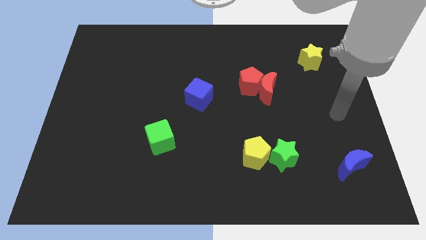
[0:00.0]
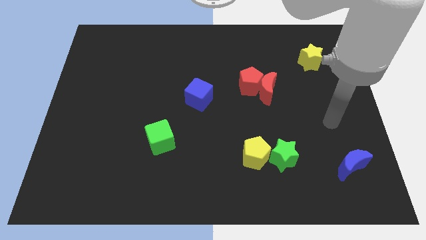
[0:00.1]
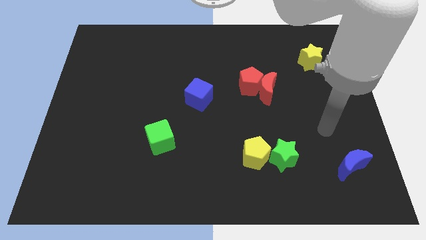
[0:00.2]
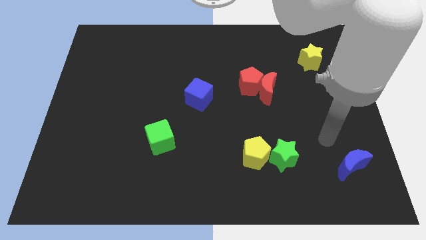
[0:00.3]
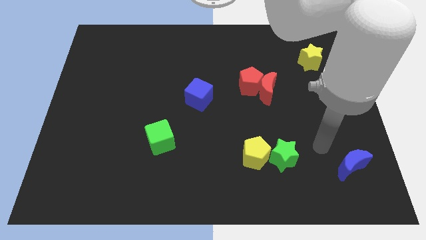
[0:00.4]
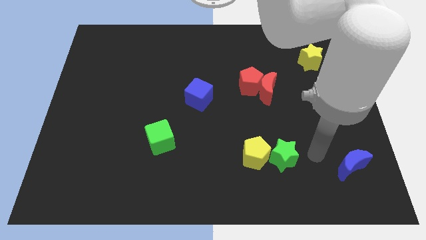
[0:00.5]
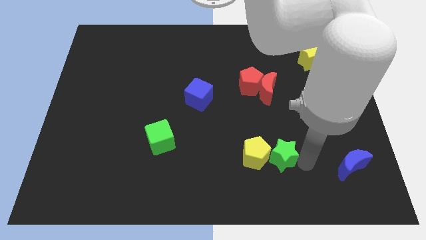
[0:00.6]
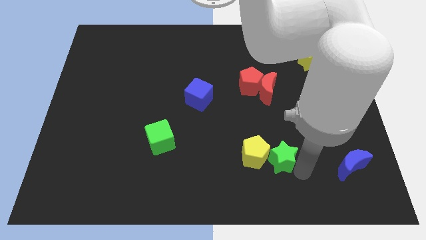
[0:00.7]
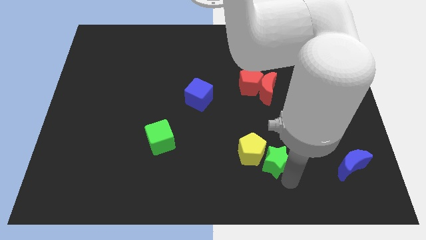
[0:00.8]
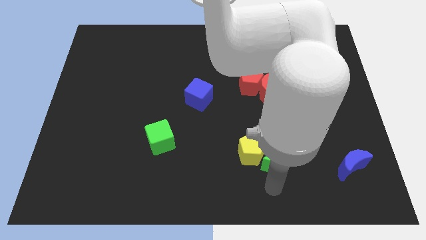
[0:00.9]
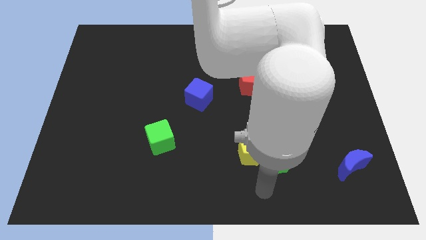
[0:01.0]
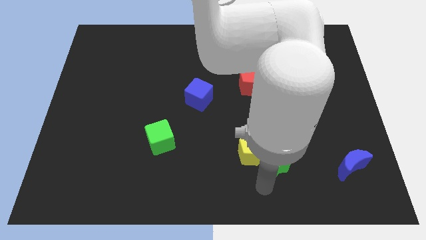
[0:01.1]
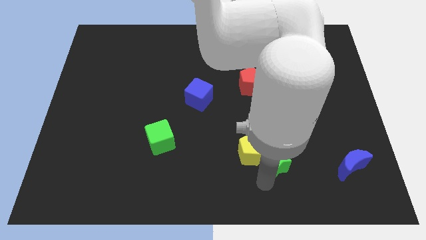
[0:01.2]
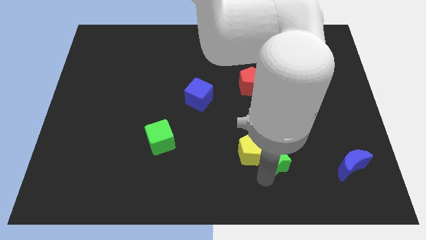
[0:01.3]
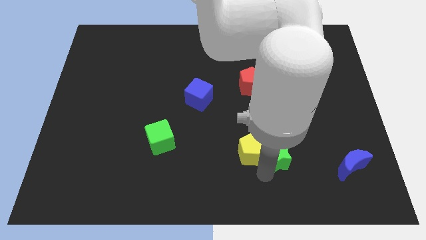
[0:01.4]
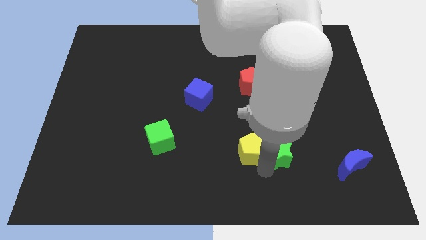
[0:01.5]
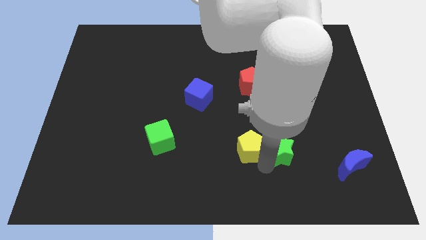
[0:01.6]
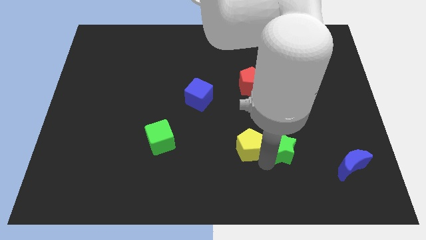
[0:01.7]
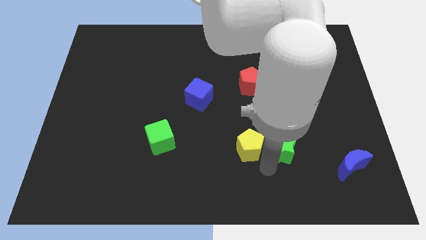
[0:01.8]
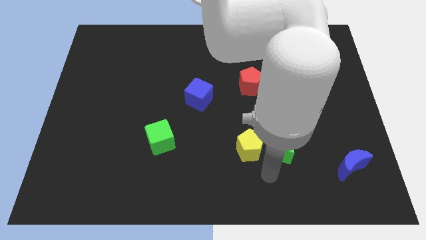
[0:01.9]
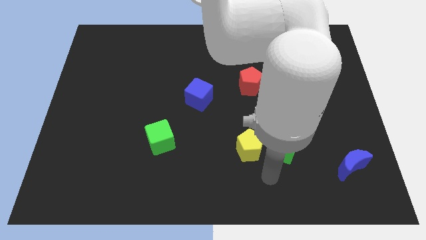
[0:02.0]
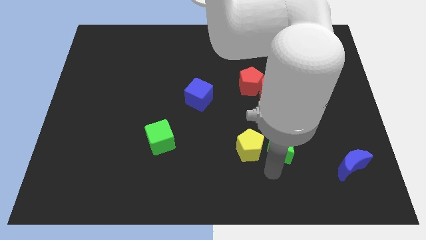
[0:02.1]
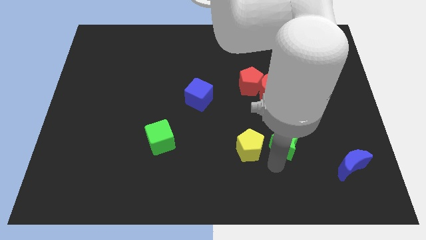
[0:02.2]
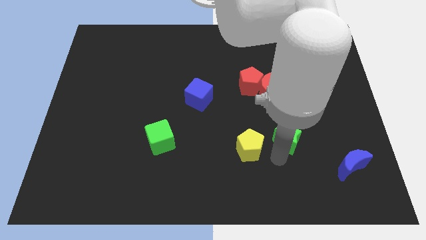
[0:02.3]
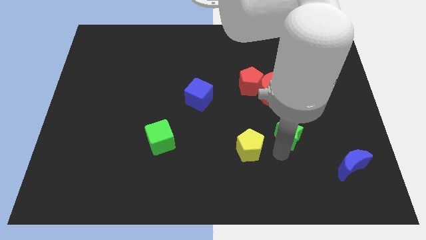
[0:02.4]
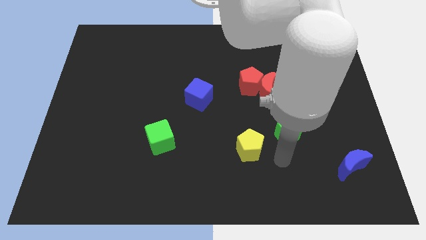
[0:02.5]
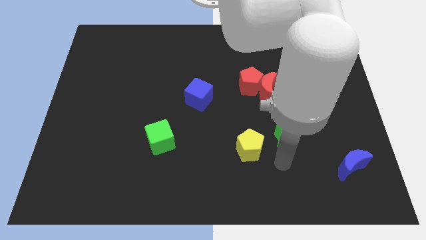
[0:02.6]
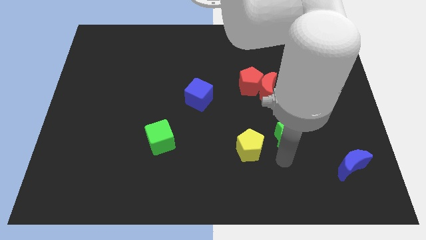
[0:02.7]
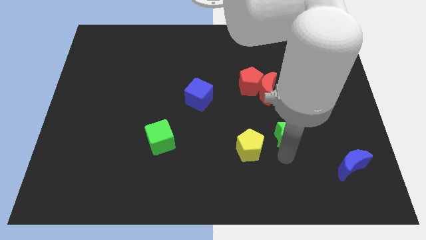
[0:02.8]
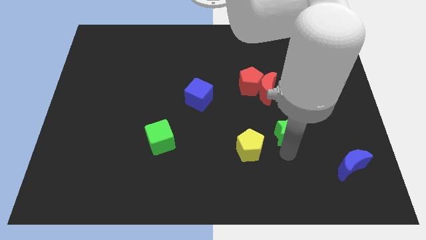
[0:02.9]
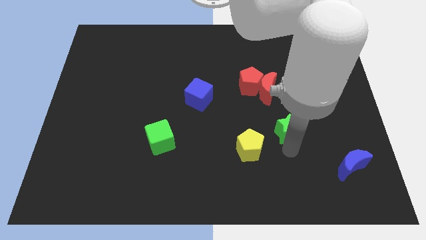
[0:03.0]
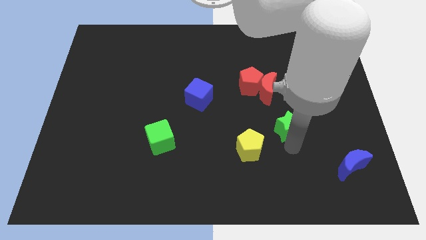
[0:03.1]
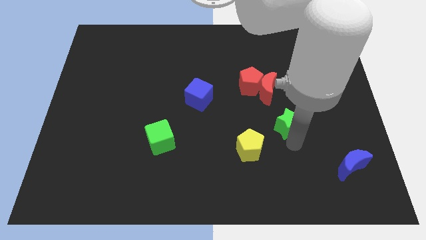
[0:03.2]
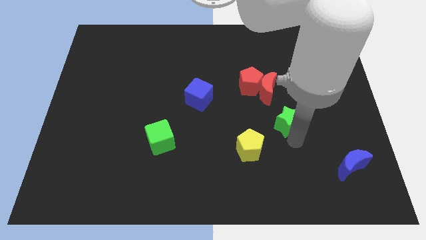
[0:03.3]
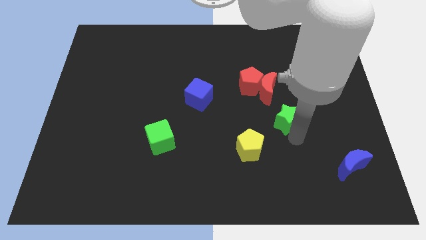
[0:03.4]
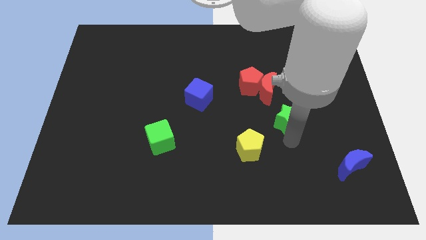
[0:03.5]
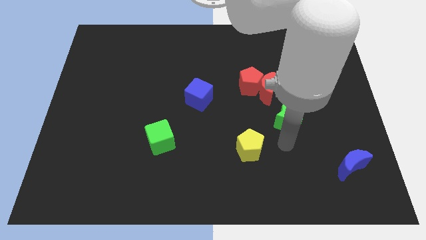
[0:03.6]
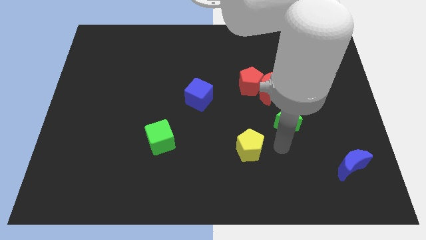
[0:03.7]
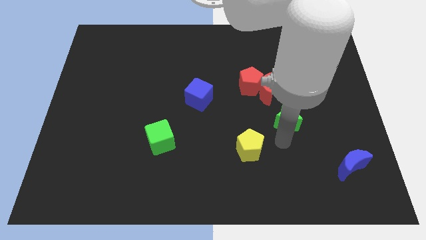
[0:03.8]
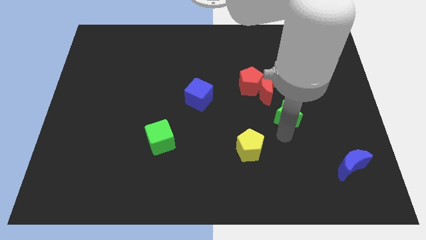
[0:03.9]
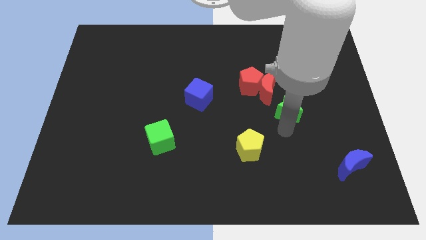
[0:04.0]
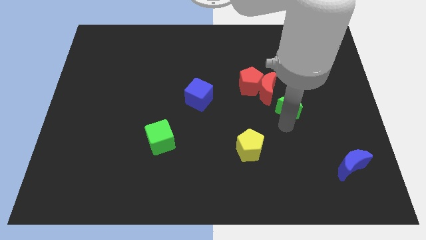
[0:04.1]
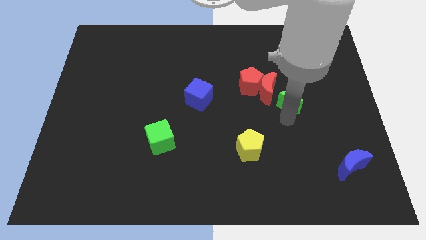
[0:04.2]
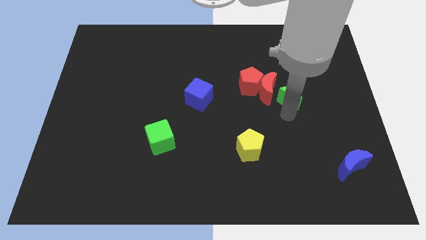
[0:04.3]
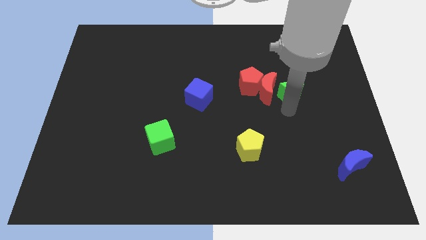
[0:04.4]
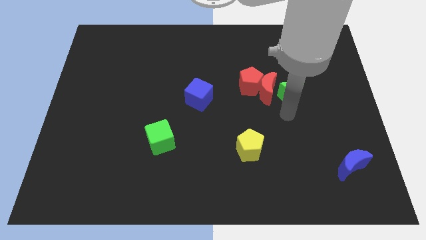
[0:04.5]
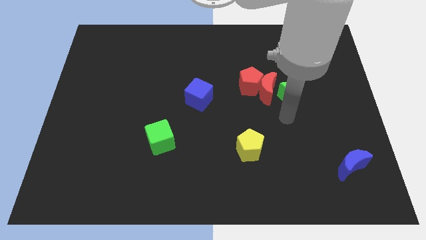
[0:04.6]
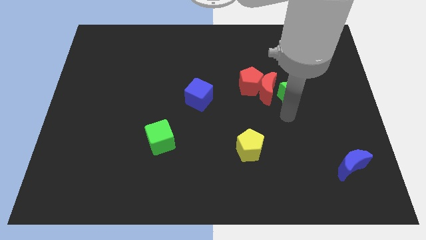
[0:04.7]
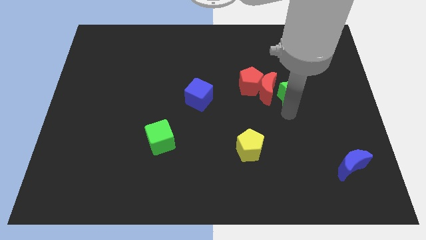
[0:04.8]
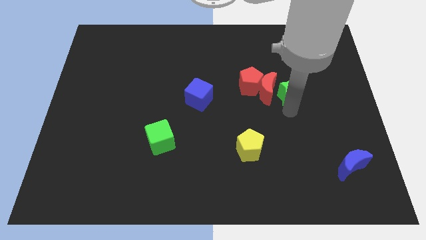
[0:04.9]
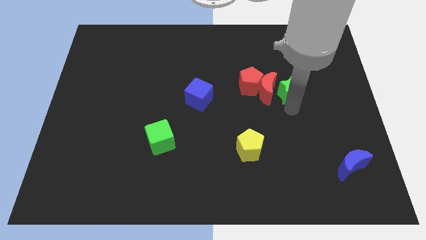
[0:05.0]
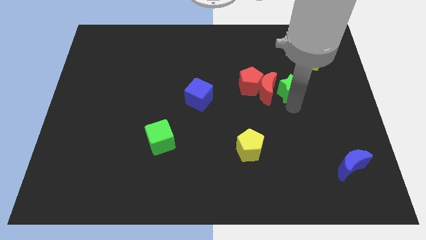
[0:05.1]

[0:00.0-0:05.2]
move the green star to the bottom left of the yellow star
